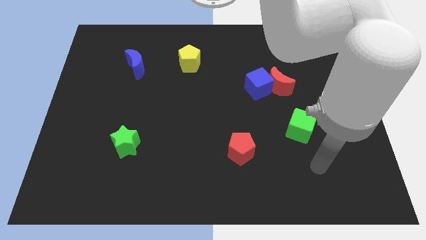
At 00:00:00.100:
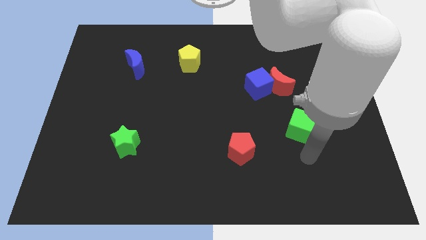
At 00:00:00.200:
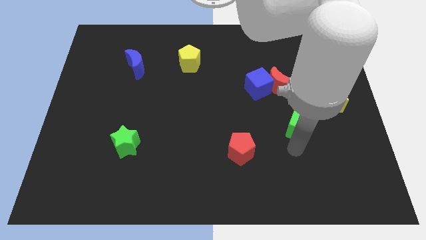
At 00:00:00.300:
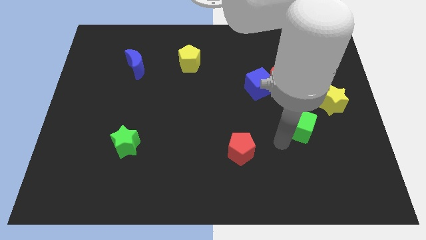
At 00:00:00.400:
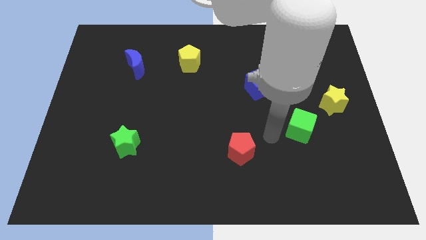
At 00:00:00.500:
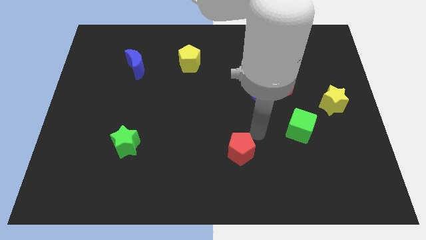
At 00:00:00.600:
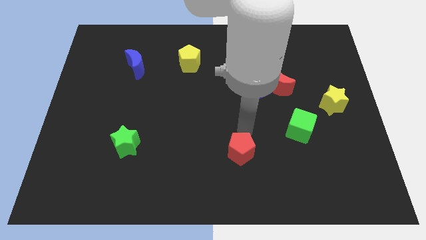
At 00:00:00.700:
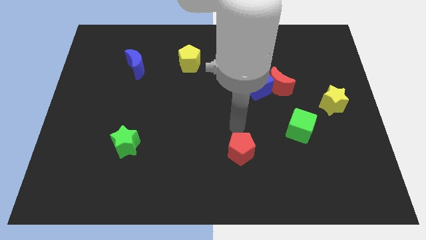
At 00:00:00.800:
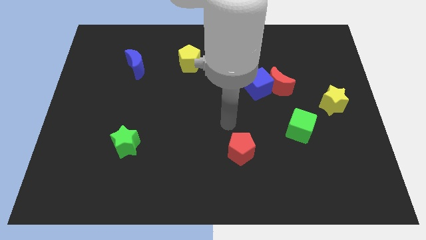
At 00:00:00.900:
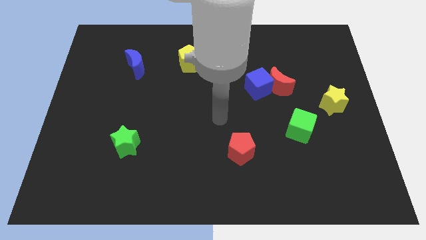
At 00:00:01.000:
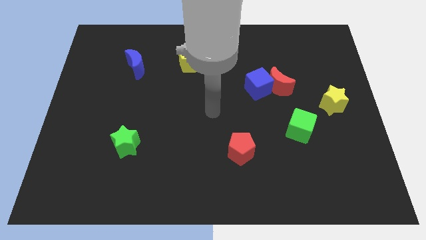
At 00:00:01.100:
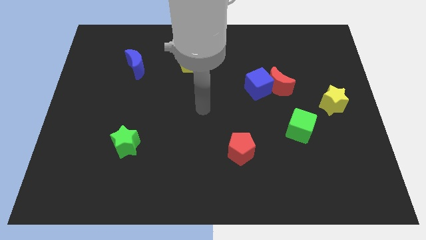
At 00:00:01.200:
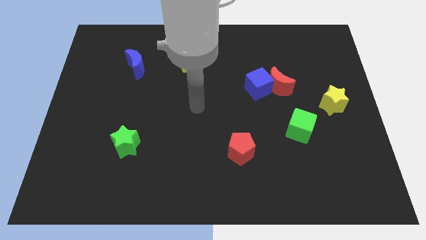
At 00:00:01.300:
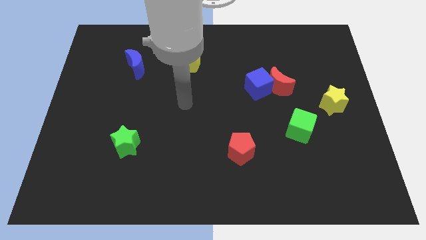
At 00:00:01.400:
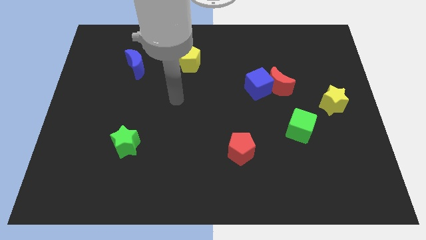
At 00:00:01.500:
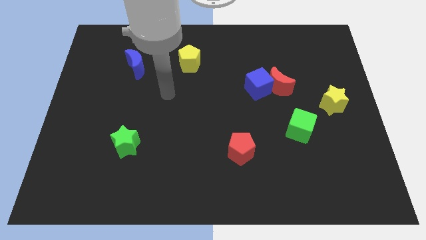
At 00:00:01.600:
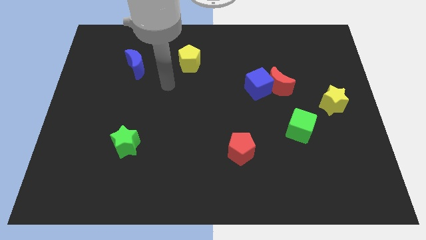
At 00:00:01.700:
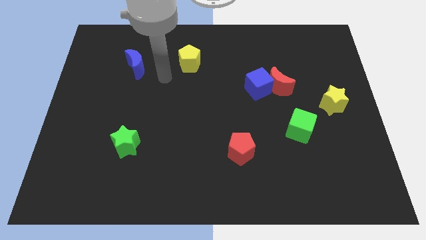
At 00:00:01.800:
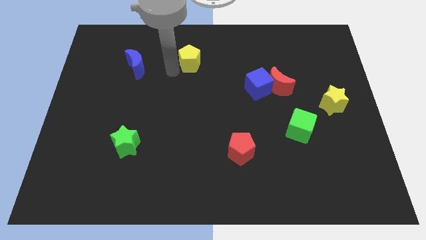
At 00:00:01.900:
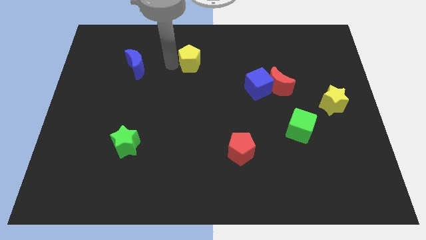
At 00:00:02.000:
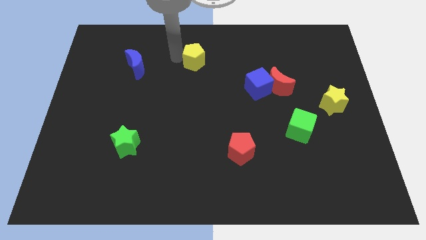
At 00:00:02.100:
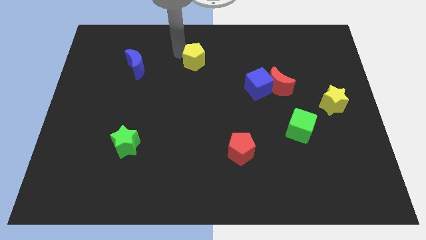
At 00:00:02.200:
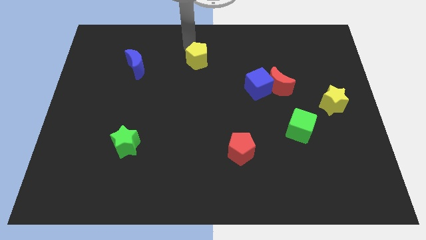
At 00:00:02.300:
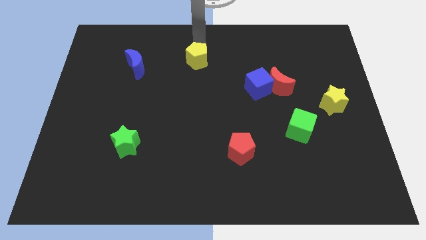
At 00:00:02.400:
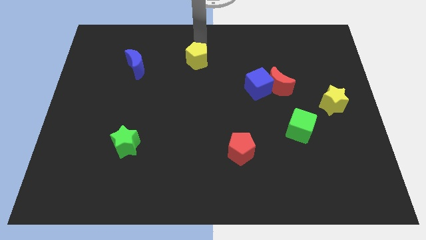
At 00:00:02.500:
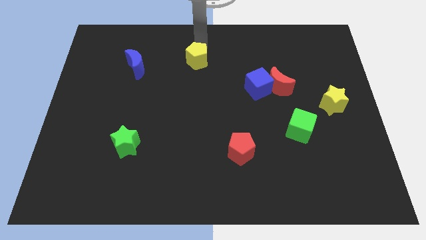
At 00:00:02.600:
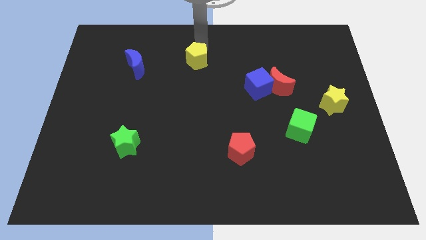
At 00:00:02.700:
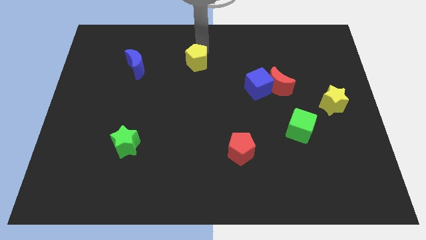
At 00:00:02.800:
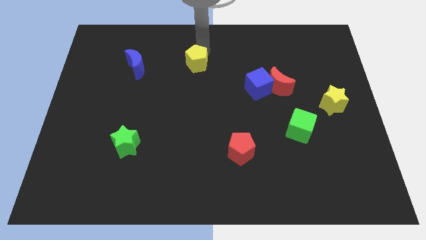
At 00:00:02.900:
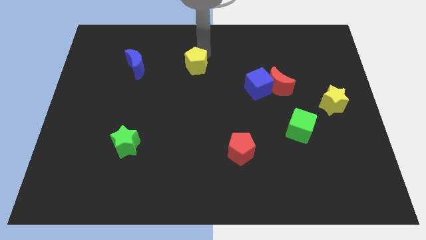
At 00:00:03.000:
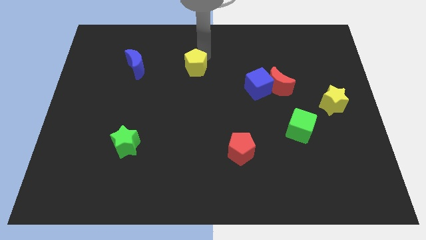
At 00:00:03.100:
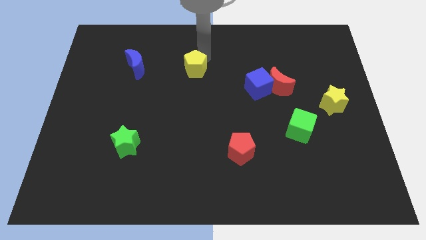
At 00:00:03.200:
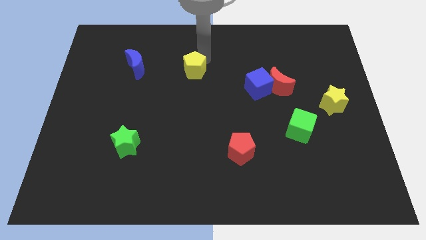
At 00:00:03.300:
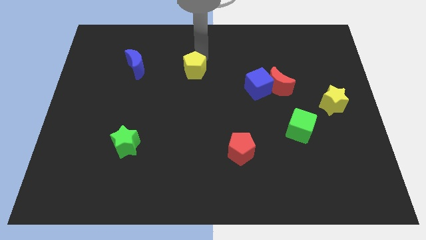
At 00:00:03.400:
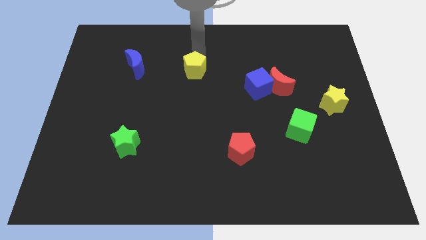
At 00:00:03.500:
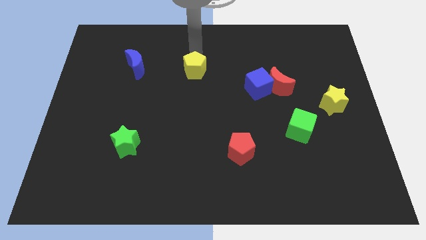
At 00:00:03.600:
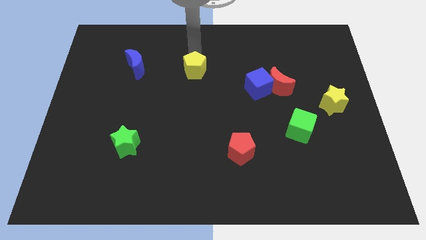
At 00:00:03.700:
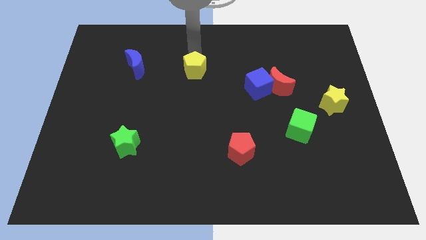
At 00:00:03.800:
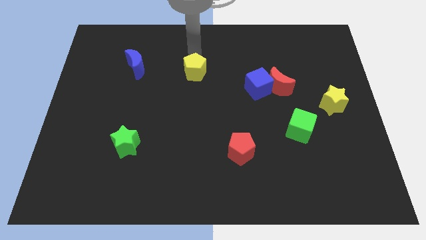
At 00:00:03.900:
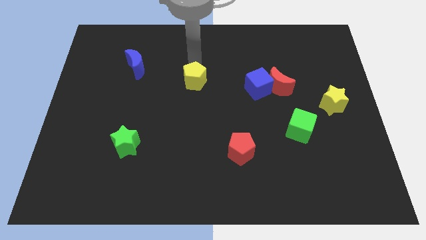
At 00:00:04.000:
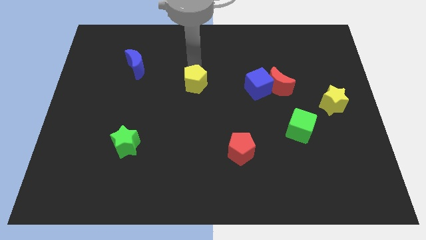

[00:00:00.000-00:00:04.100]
slightly push the yellow pentagon downwards

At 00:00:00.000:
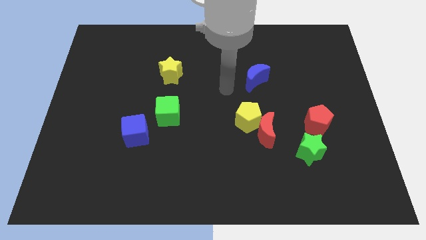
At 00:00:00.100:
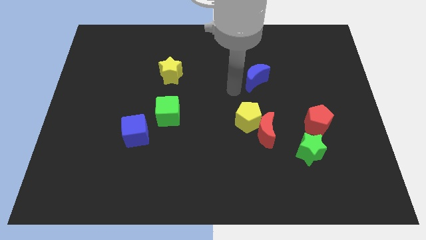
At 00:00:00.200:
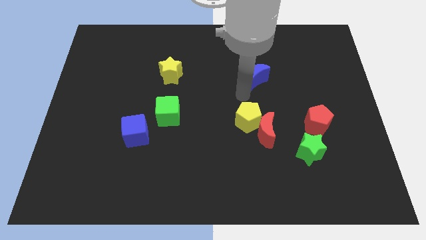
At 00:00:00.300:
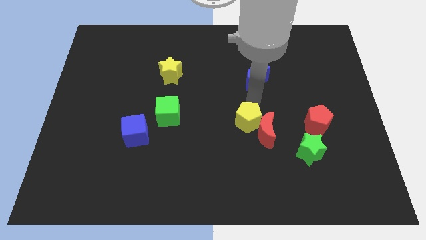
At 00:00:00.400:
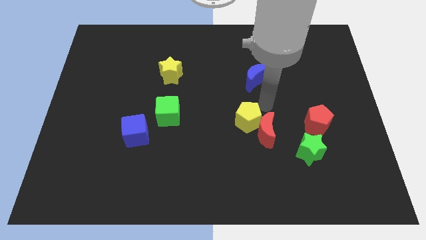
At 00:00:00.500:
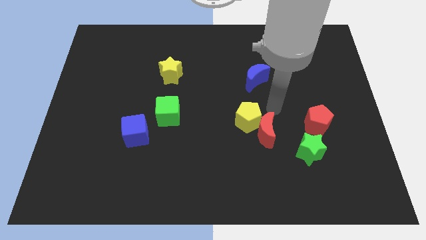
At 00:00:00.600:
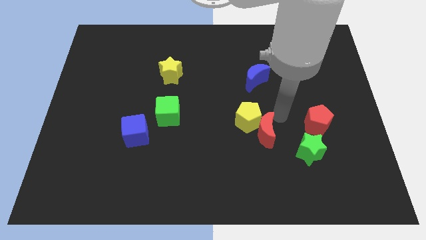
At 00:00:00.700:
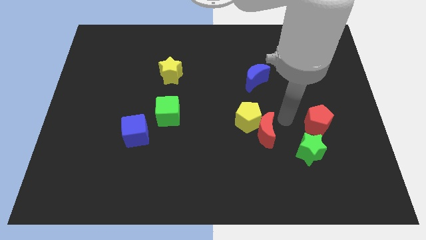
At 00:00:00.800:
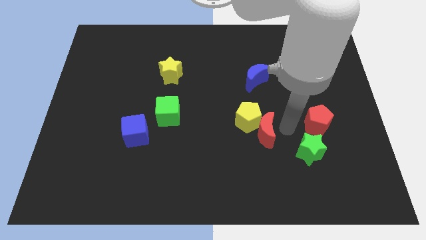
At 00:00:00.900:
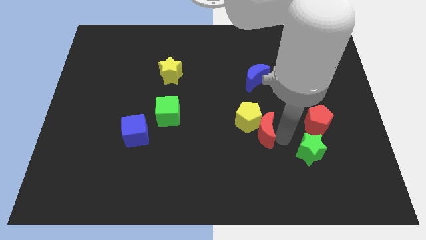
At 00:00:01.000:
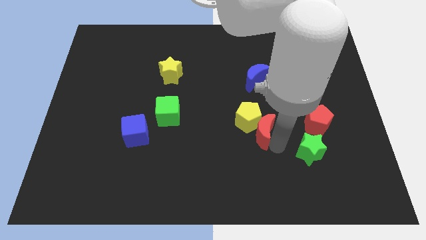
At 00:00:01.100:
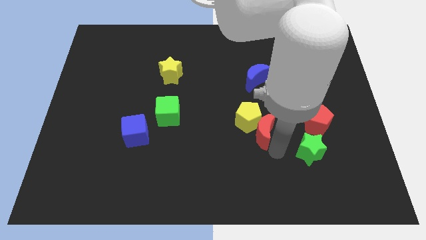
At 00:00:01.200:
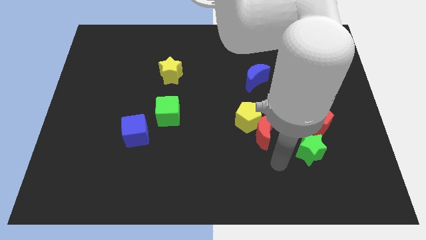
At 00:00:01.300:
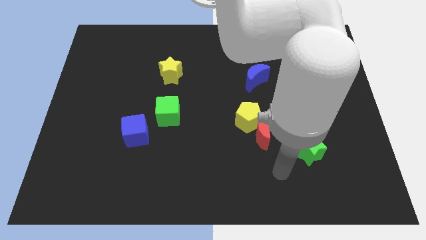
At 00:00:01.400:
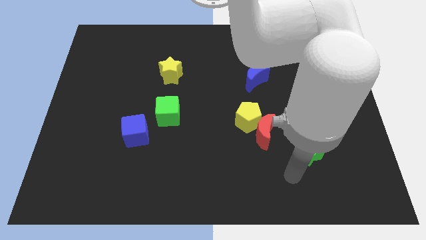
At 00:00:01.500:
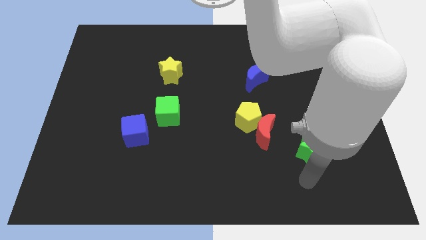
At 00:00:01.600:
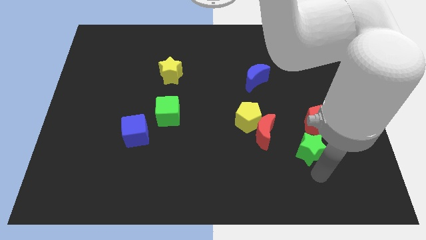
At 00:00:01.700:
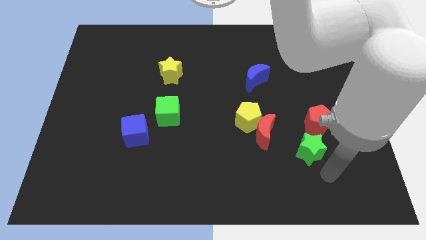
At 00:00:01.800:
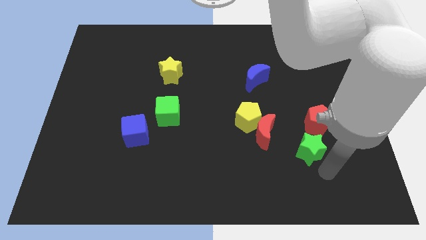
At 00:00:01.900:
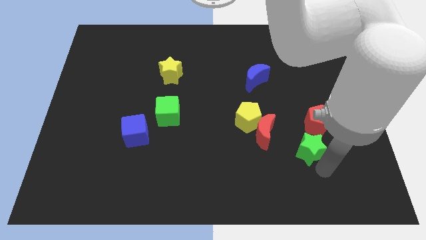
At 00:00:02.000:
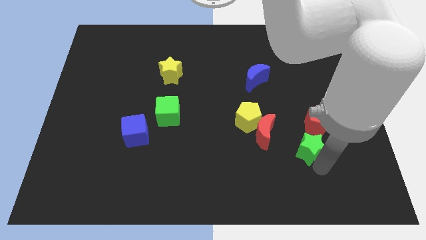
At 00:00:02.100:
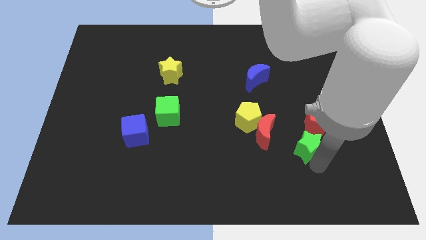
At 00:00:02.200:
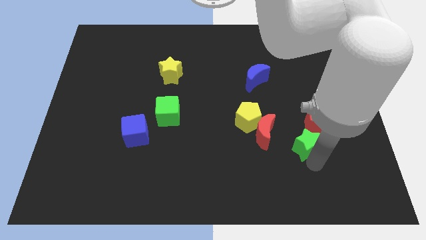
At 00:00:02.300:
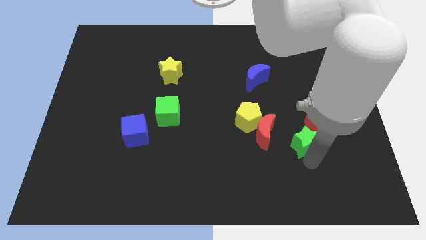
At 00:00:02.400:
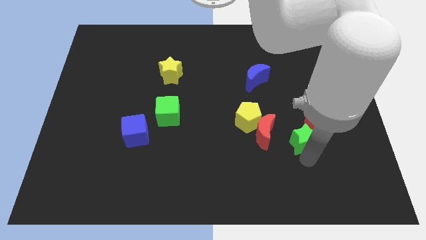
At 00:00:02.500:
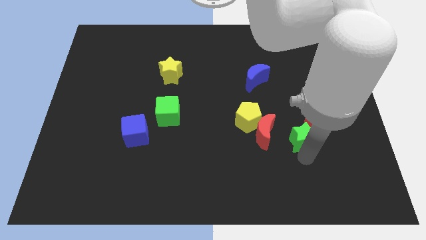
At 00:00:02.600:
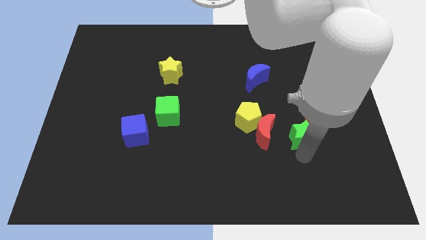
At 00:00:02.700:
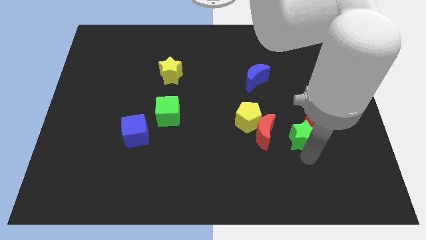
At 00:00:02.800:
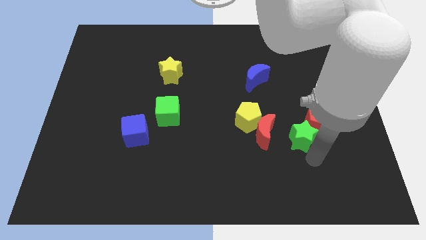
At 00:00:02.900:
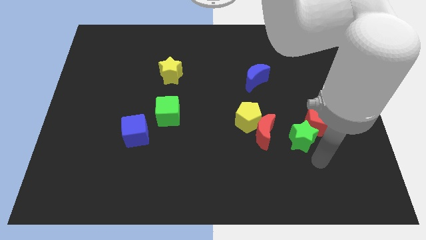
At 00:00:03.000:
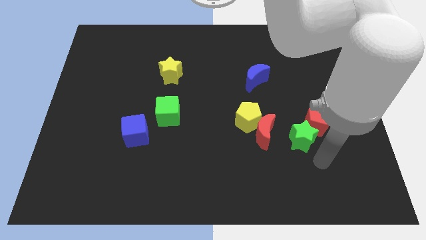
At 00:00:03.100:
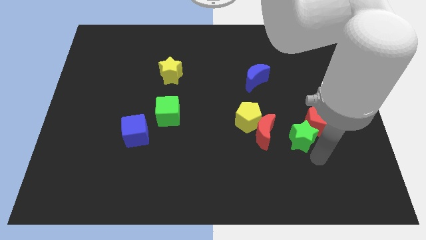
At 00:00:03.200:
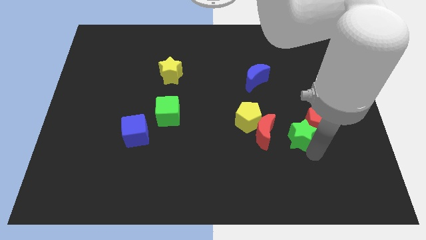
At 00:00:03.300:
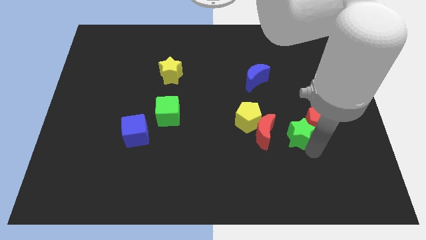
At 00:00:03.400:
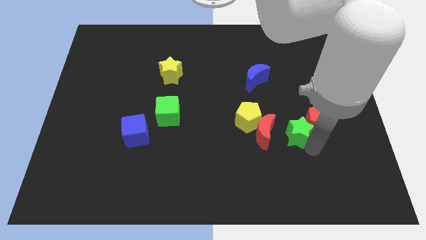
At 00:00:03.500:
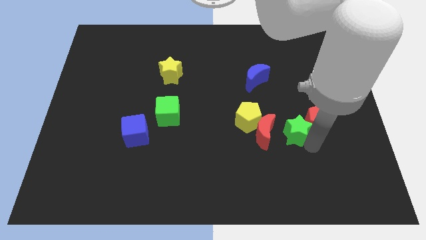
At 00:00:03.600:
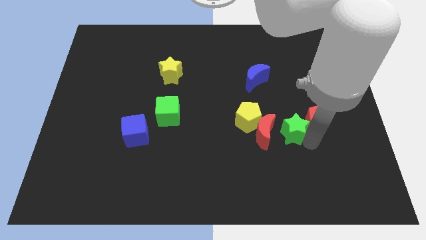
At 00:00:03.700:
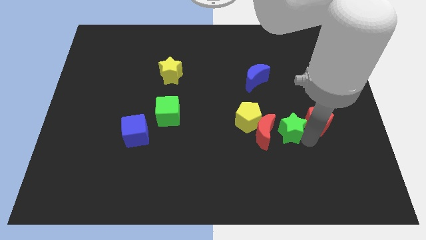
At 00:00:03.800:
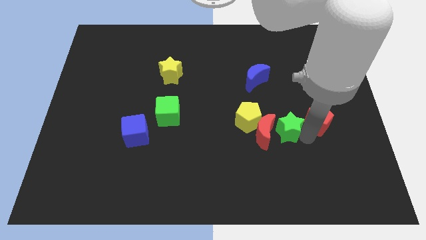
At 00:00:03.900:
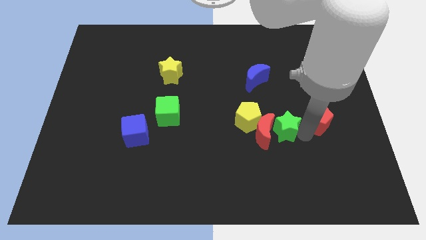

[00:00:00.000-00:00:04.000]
push the green star slightly upwards and then left
